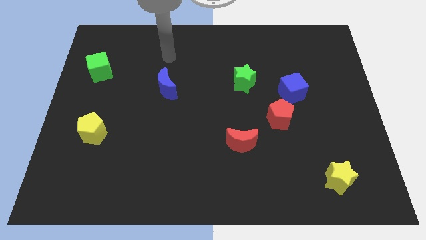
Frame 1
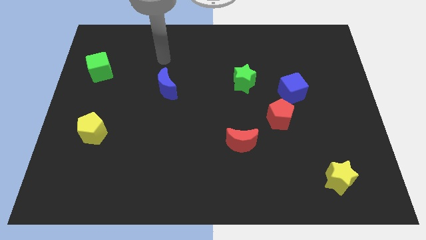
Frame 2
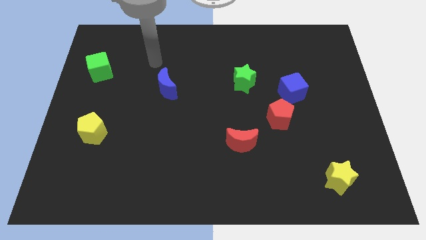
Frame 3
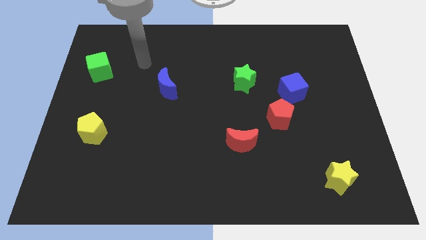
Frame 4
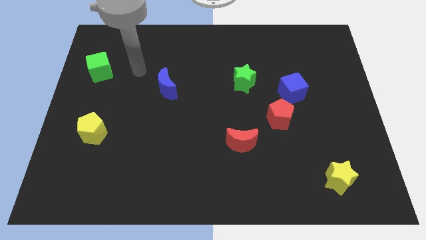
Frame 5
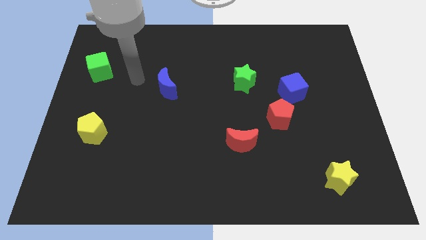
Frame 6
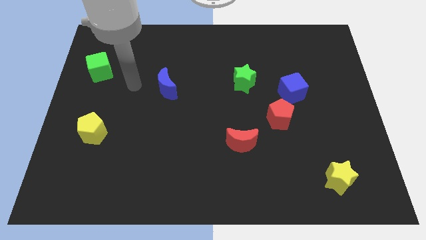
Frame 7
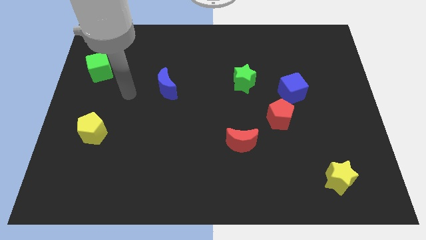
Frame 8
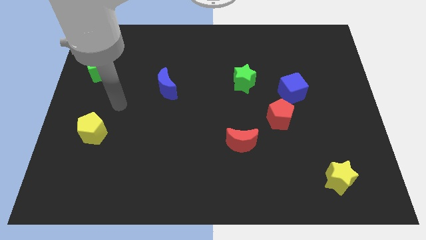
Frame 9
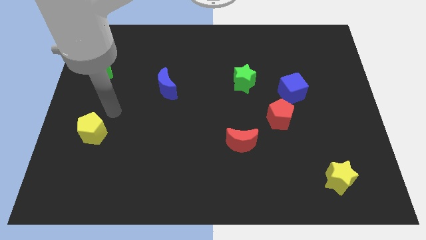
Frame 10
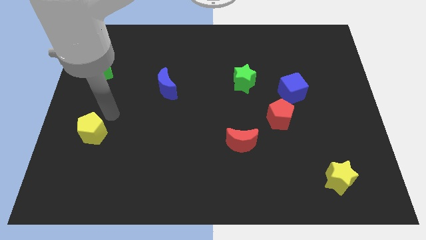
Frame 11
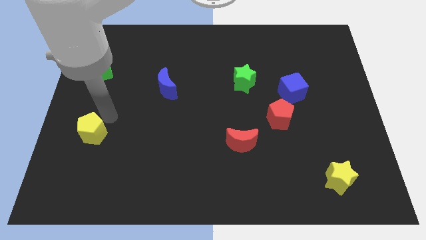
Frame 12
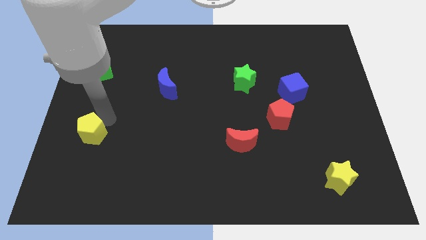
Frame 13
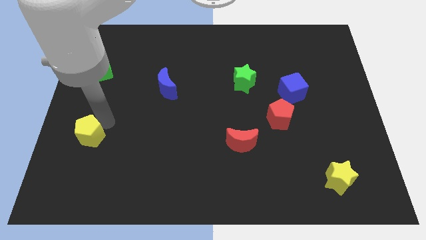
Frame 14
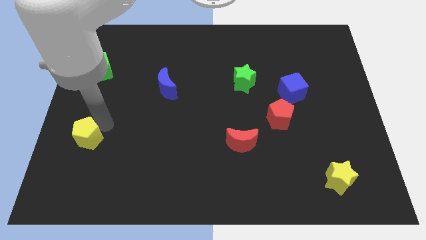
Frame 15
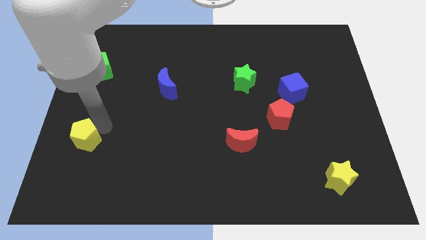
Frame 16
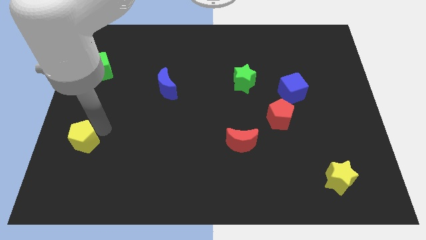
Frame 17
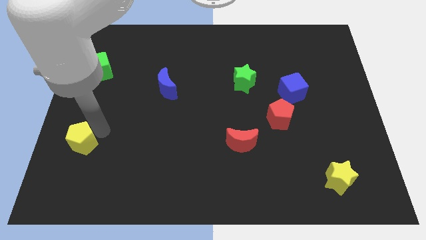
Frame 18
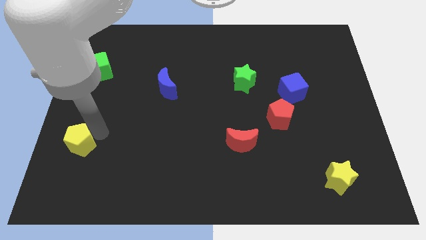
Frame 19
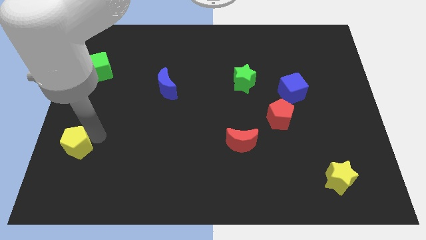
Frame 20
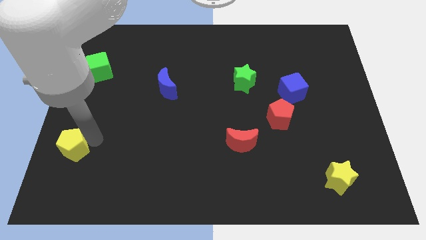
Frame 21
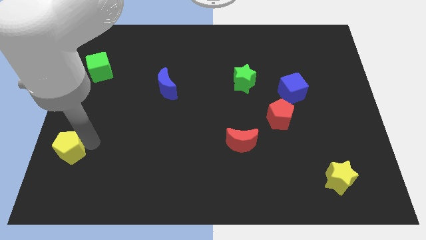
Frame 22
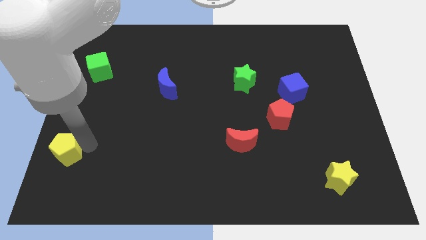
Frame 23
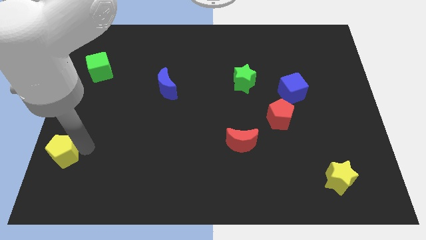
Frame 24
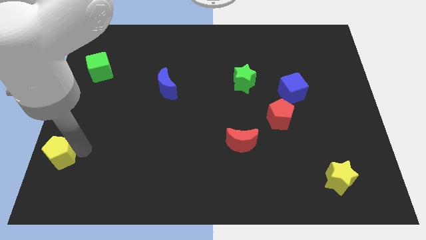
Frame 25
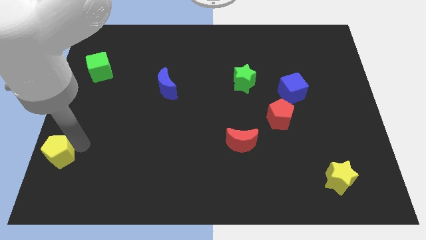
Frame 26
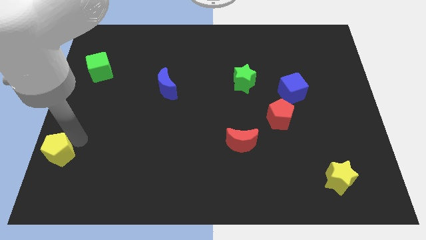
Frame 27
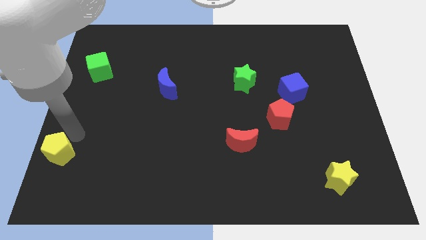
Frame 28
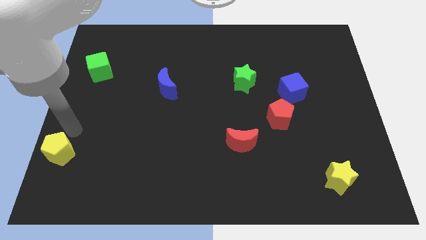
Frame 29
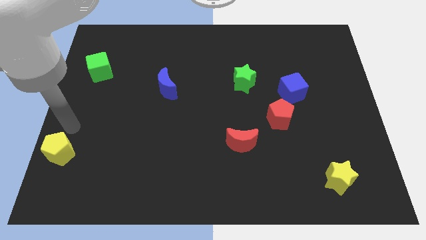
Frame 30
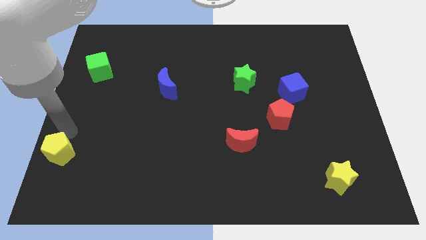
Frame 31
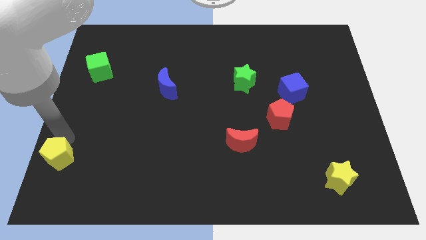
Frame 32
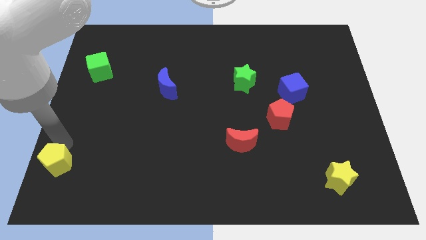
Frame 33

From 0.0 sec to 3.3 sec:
put the yellow pentagon to the lower left corner

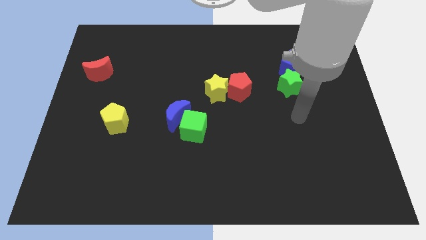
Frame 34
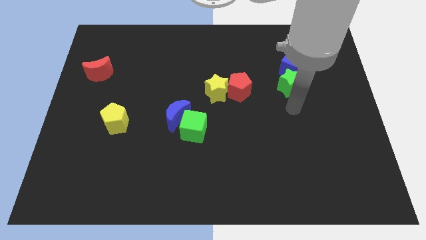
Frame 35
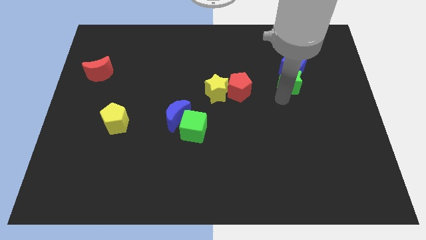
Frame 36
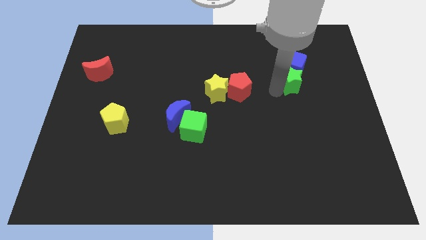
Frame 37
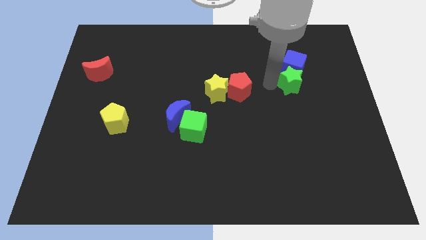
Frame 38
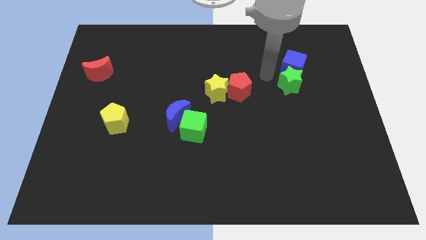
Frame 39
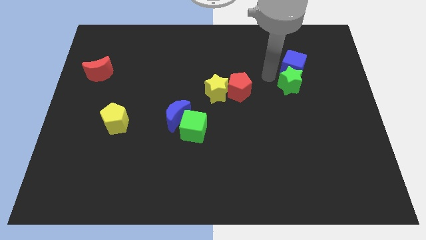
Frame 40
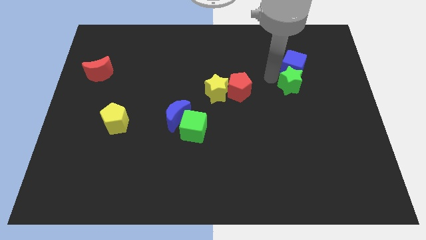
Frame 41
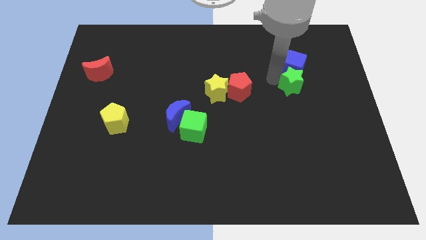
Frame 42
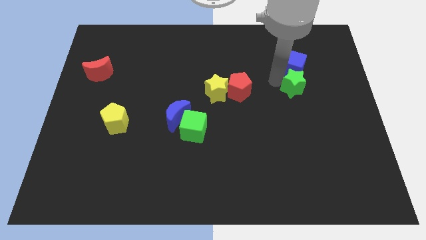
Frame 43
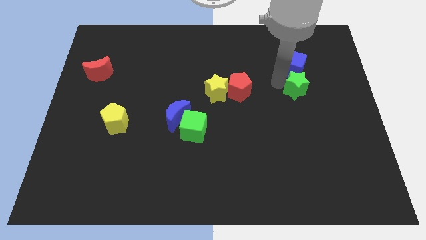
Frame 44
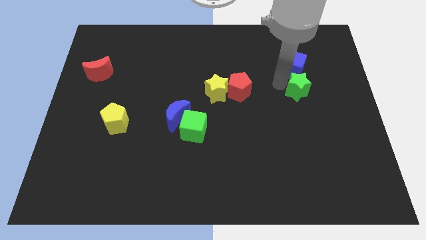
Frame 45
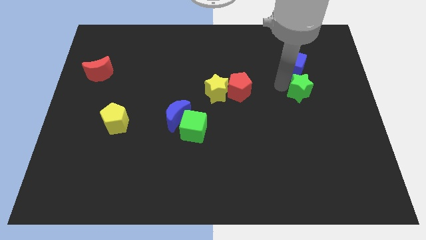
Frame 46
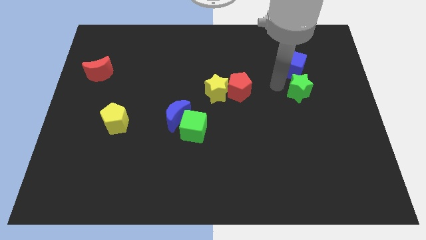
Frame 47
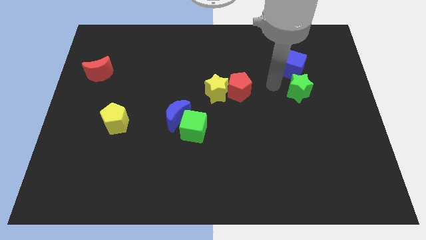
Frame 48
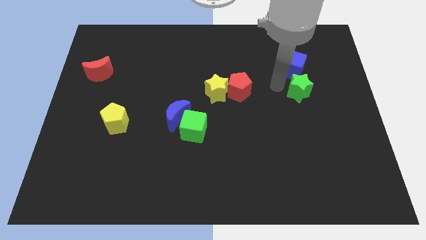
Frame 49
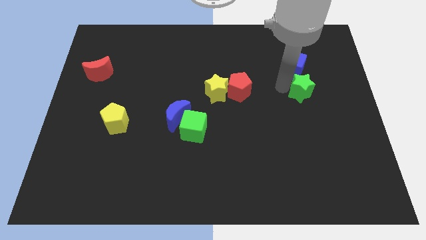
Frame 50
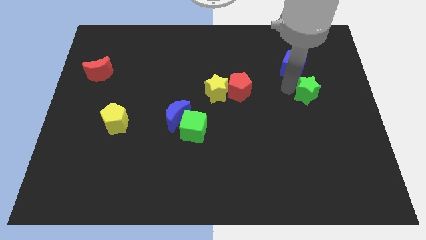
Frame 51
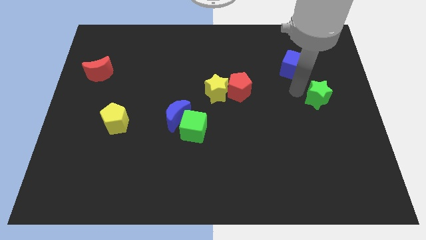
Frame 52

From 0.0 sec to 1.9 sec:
push the green star to the right side

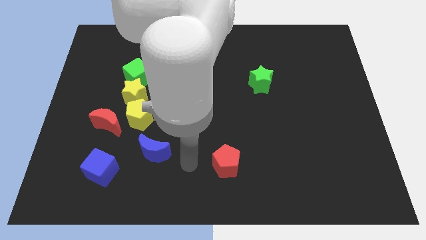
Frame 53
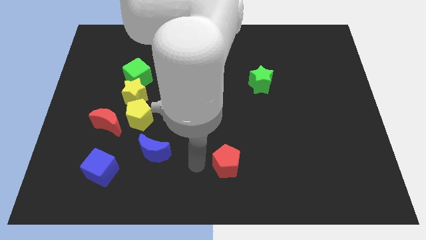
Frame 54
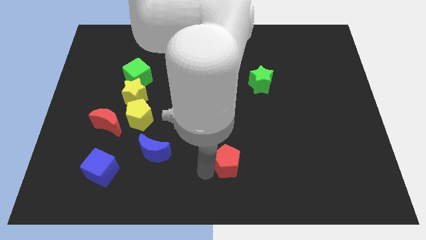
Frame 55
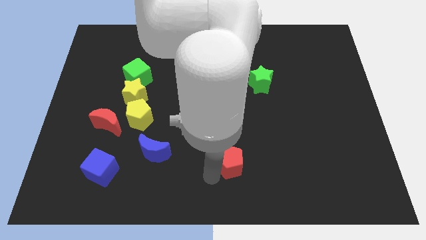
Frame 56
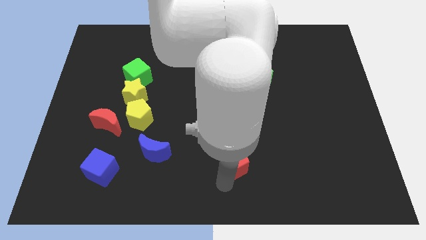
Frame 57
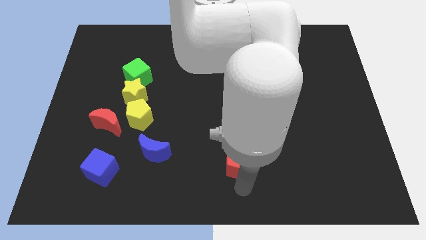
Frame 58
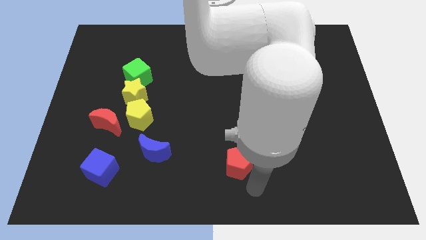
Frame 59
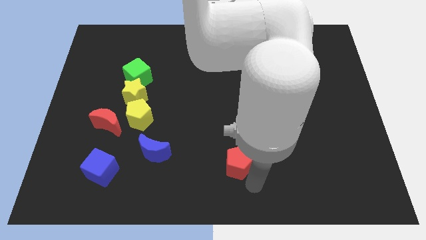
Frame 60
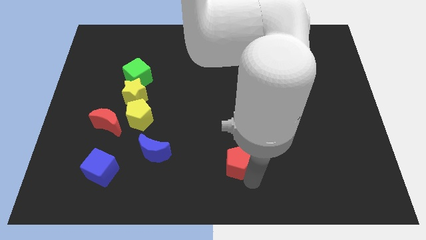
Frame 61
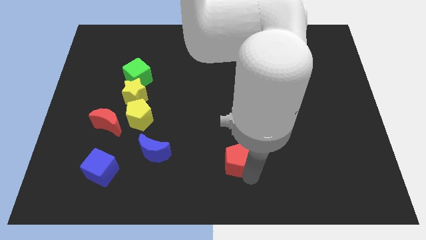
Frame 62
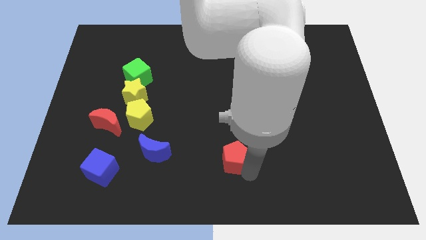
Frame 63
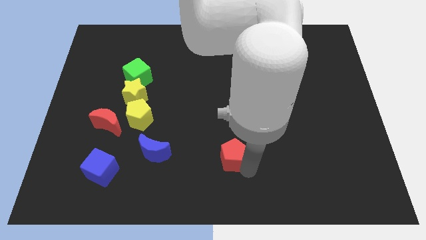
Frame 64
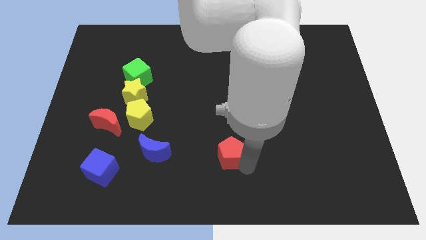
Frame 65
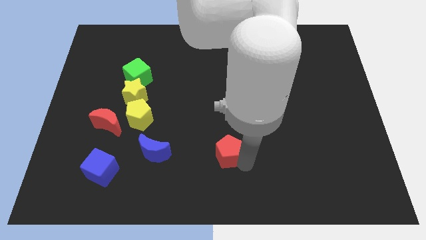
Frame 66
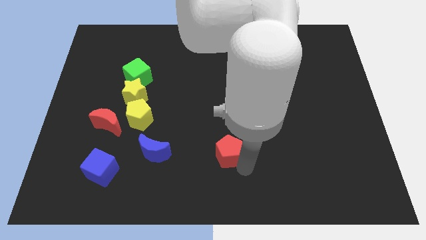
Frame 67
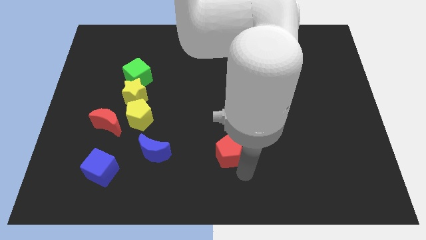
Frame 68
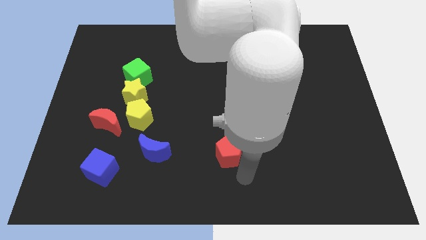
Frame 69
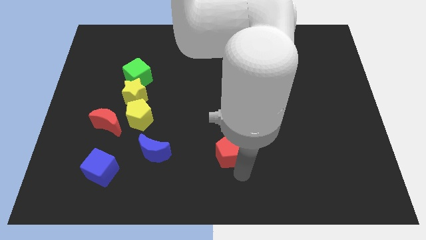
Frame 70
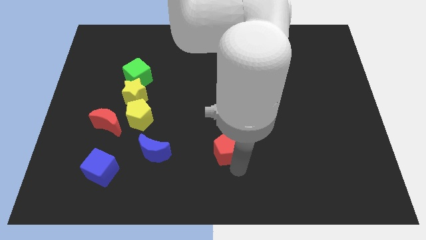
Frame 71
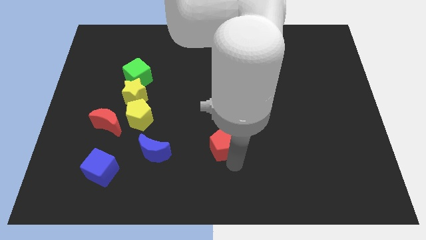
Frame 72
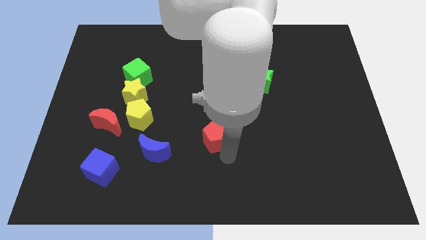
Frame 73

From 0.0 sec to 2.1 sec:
push the red pentagon to the center

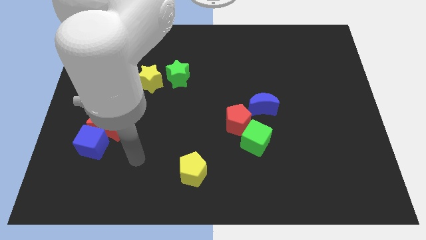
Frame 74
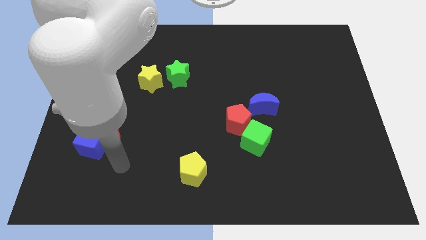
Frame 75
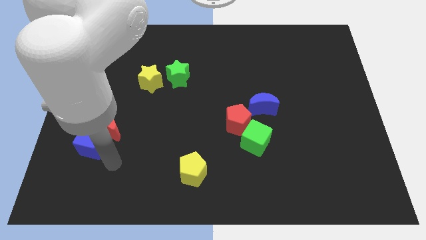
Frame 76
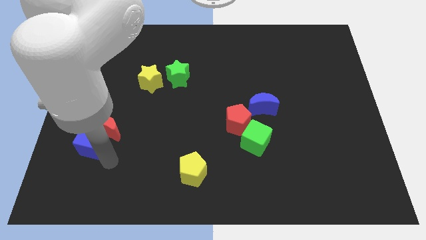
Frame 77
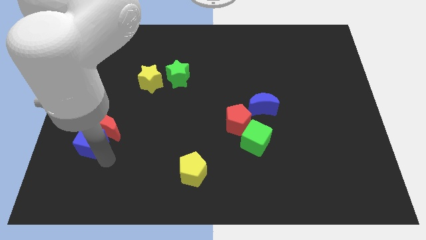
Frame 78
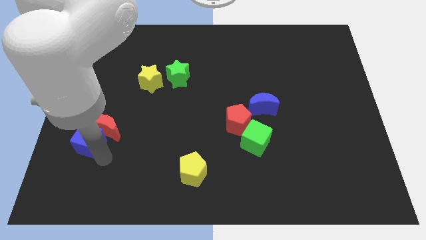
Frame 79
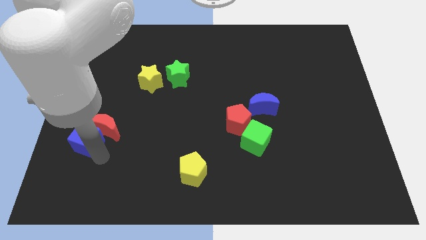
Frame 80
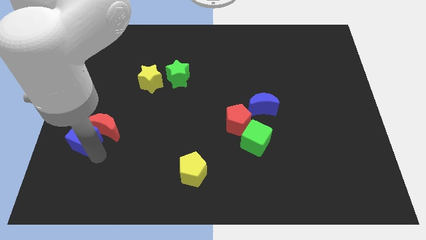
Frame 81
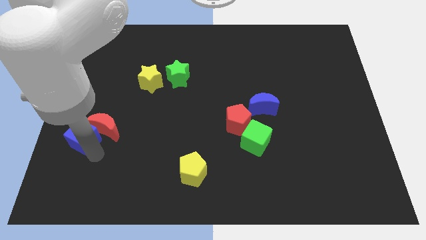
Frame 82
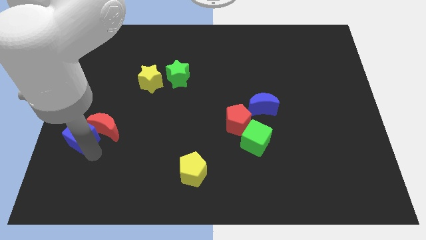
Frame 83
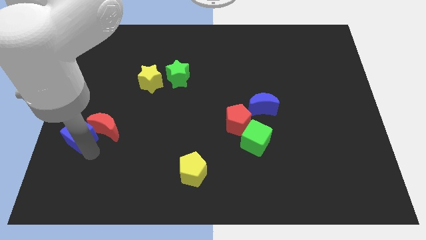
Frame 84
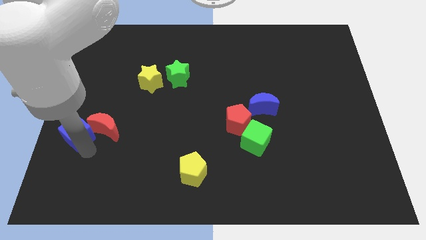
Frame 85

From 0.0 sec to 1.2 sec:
move the blue cube to the left side of the board
